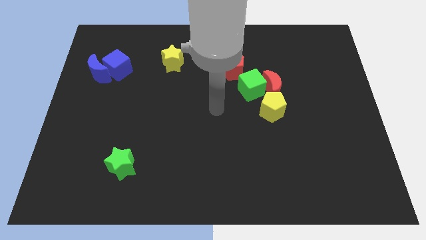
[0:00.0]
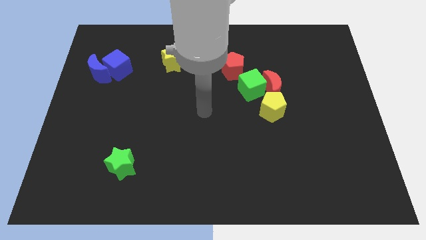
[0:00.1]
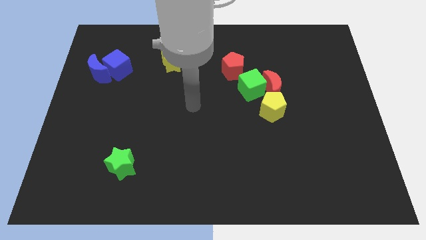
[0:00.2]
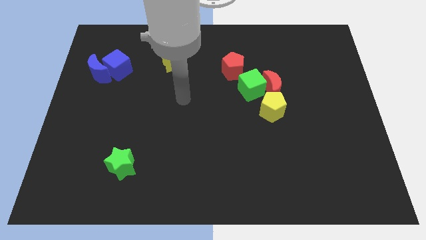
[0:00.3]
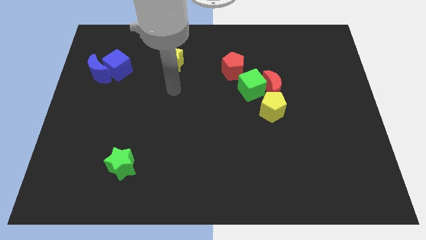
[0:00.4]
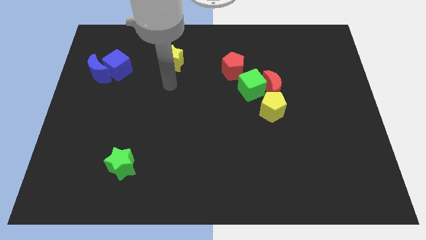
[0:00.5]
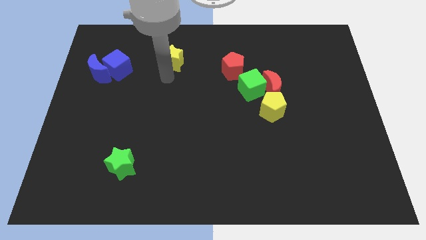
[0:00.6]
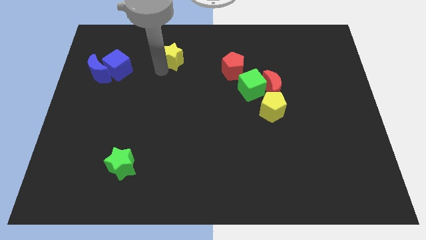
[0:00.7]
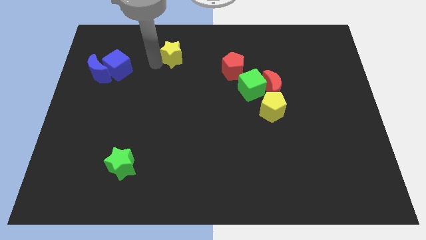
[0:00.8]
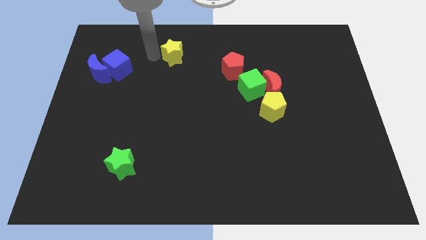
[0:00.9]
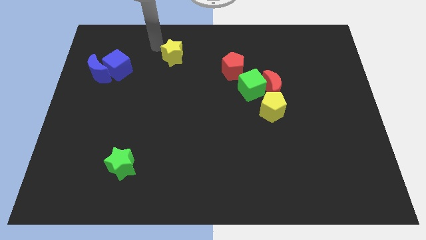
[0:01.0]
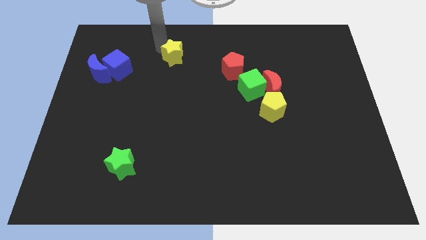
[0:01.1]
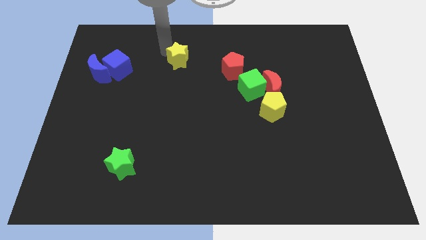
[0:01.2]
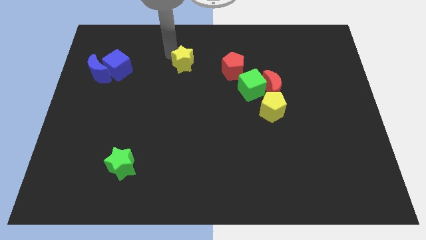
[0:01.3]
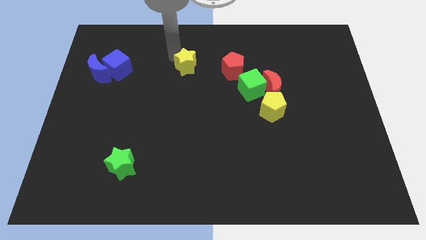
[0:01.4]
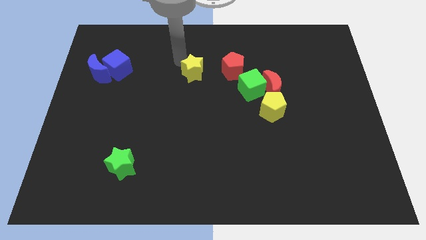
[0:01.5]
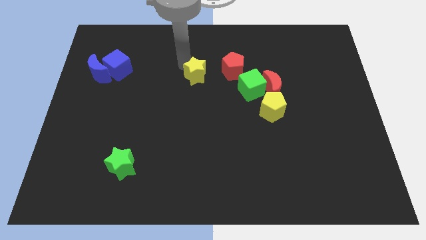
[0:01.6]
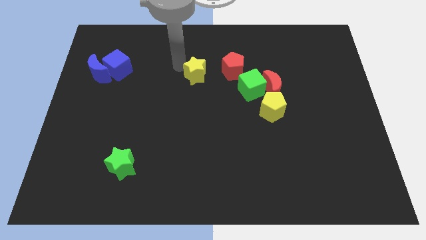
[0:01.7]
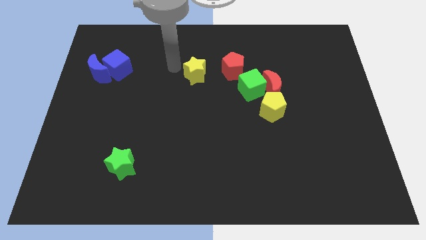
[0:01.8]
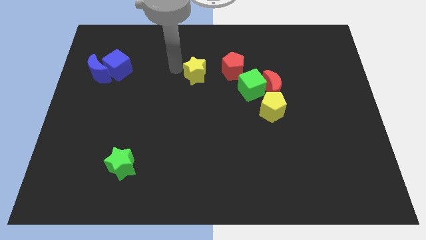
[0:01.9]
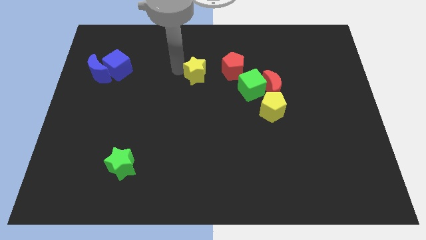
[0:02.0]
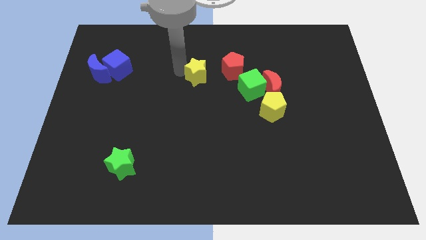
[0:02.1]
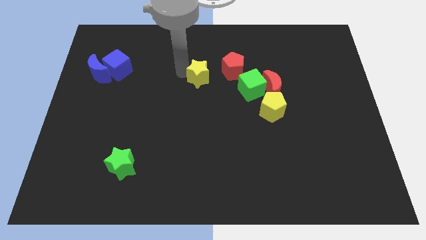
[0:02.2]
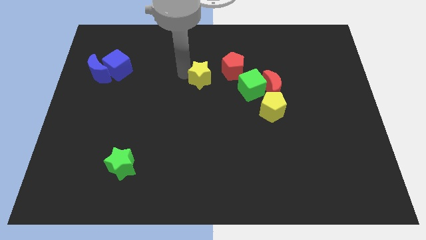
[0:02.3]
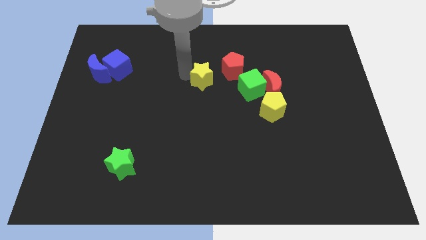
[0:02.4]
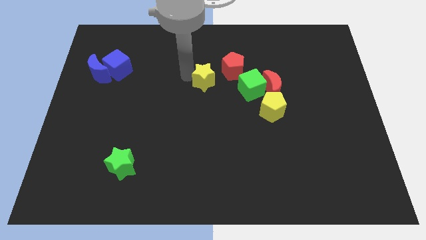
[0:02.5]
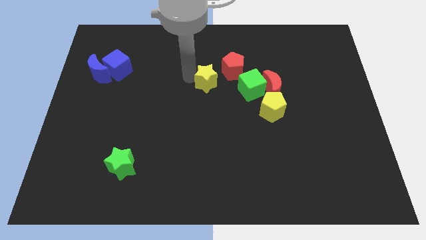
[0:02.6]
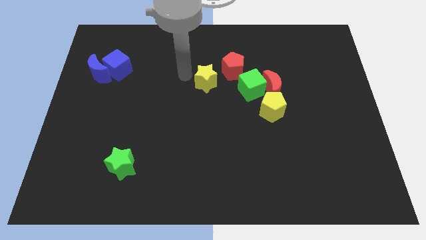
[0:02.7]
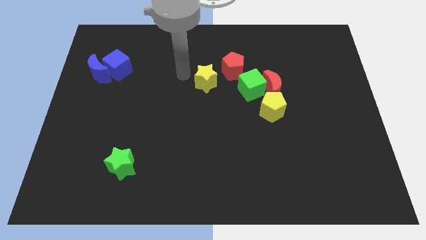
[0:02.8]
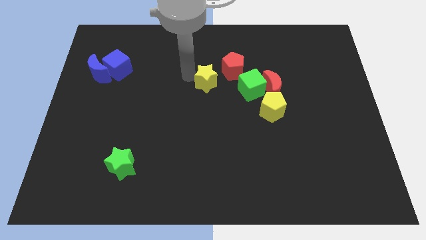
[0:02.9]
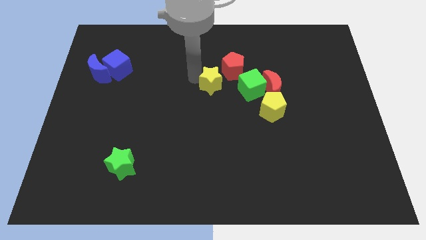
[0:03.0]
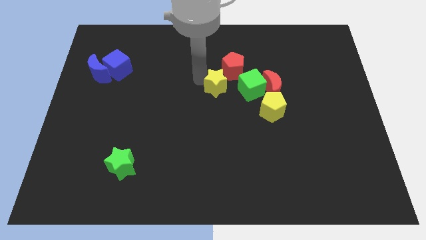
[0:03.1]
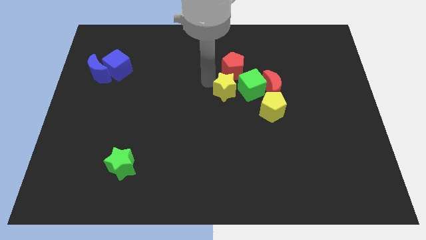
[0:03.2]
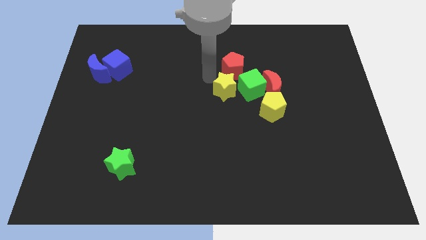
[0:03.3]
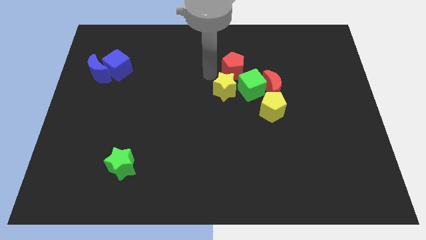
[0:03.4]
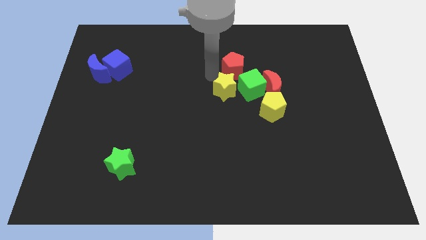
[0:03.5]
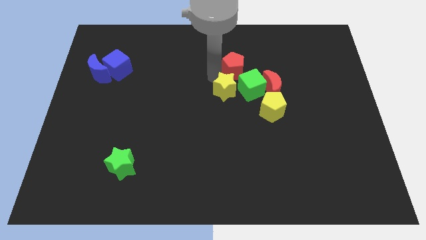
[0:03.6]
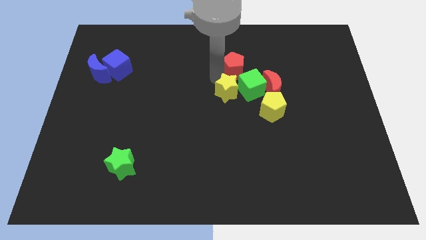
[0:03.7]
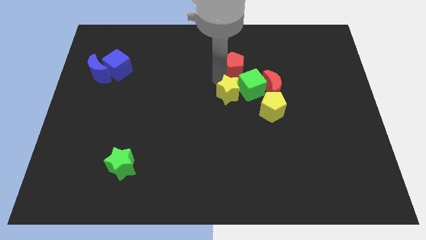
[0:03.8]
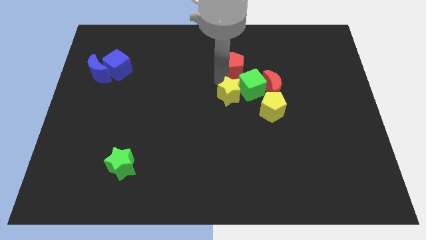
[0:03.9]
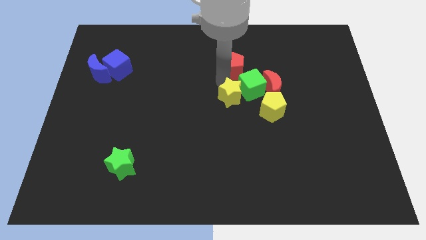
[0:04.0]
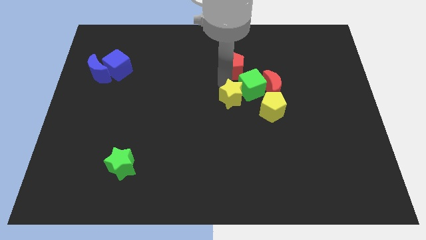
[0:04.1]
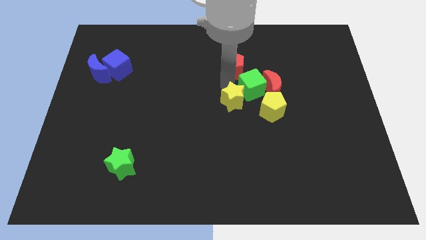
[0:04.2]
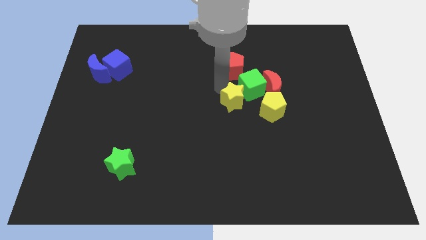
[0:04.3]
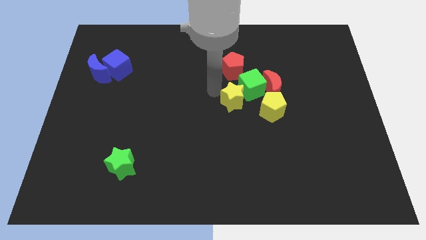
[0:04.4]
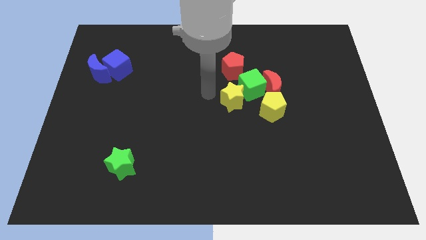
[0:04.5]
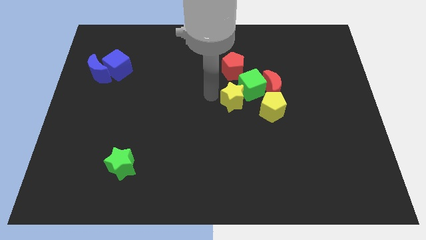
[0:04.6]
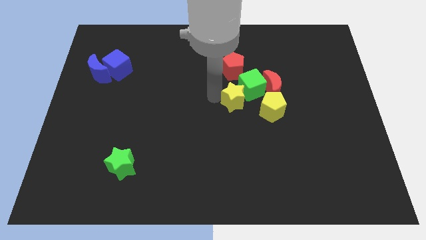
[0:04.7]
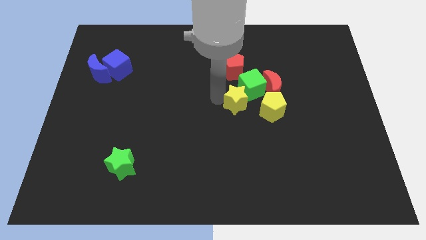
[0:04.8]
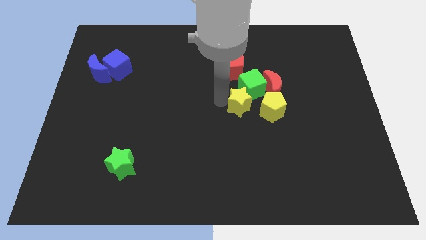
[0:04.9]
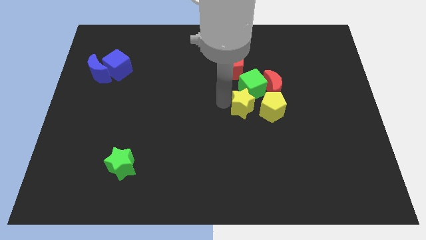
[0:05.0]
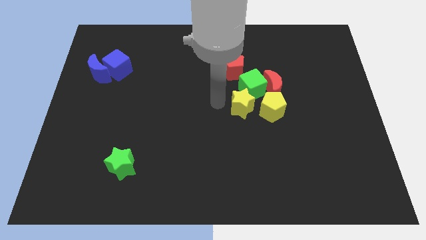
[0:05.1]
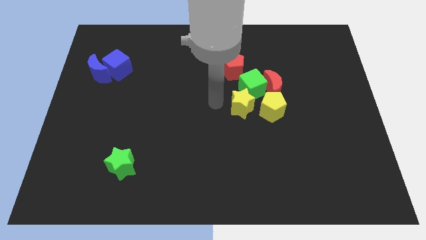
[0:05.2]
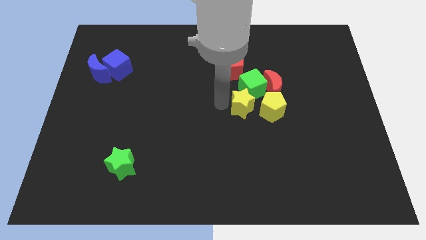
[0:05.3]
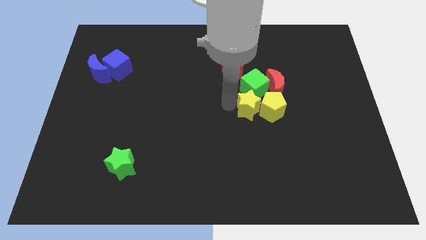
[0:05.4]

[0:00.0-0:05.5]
slide the yellow star next to the yellow pentagon

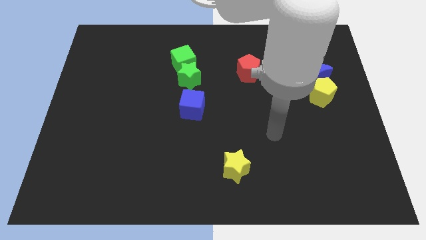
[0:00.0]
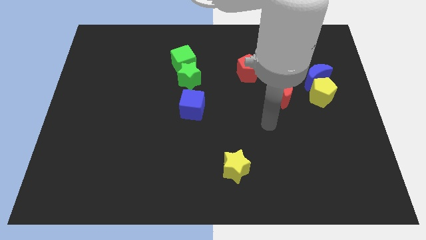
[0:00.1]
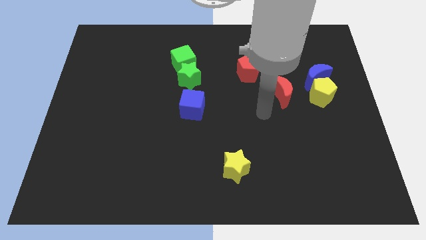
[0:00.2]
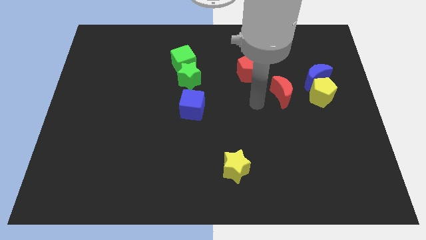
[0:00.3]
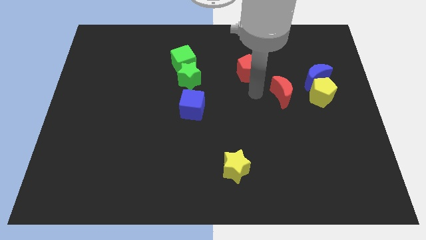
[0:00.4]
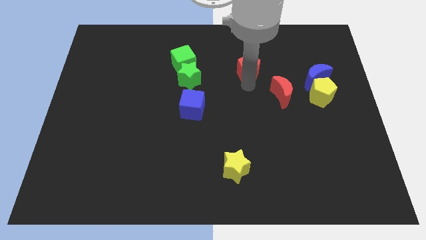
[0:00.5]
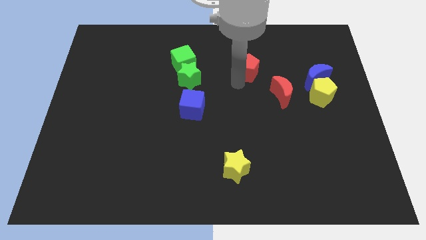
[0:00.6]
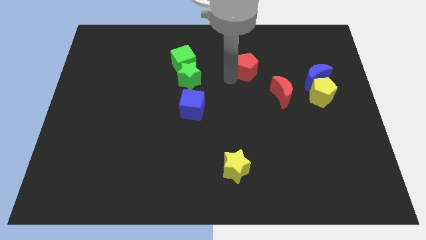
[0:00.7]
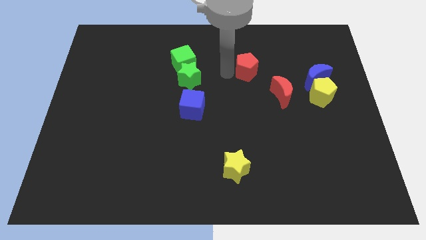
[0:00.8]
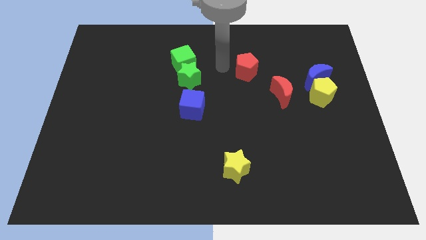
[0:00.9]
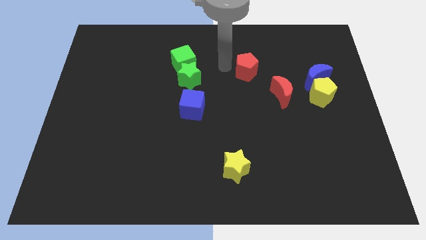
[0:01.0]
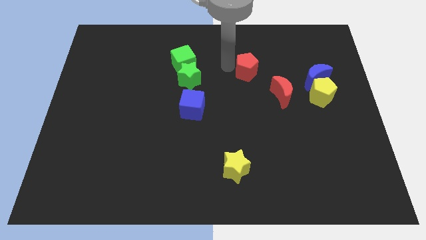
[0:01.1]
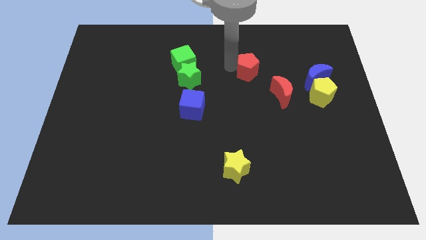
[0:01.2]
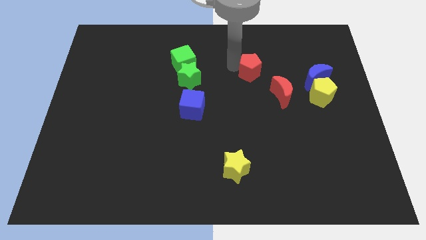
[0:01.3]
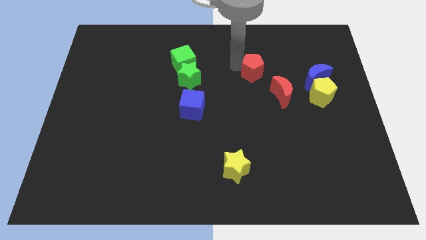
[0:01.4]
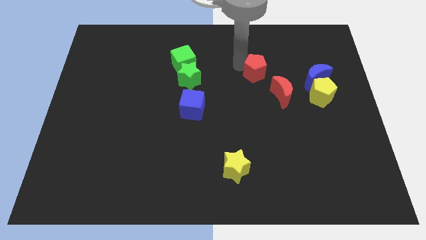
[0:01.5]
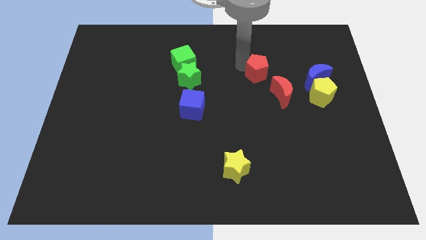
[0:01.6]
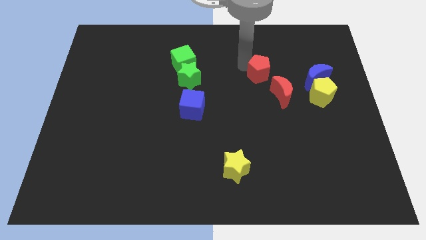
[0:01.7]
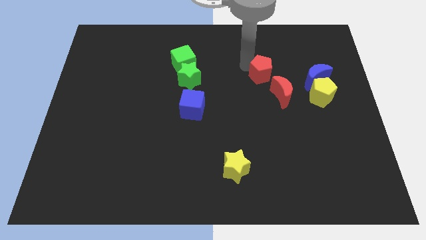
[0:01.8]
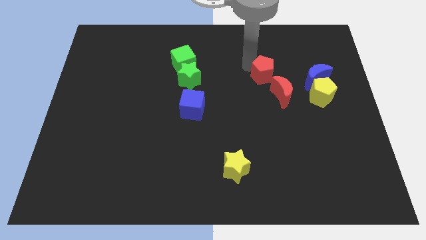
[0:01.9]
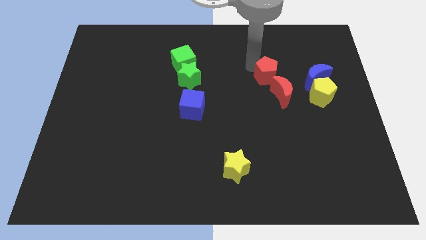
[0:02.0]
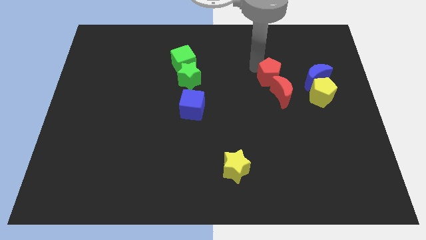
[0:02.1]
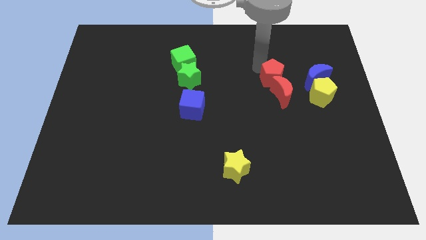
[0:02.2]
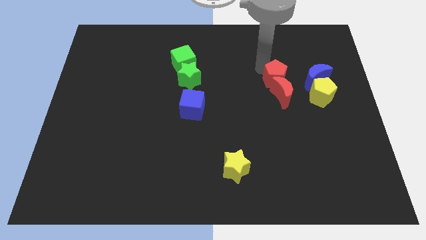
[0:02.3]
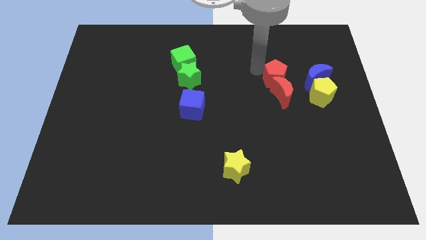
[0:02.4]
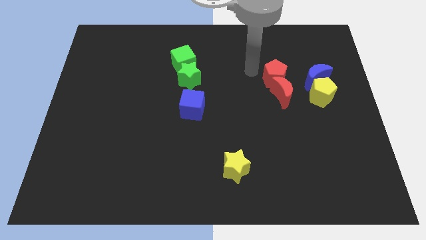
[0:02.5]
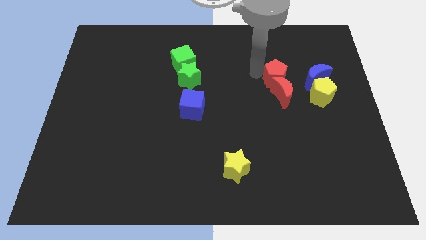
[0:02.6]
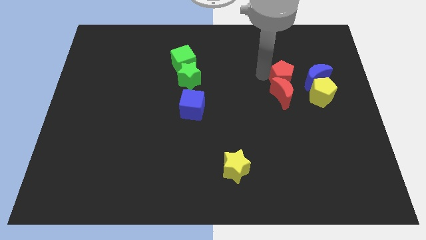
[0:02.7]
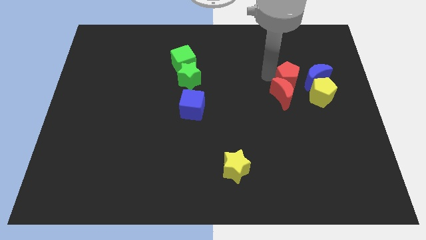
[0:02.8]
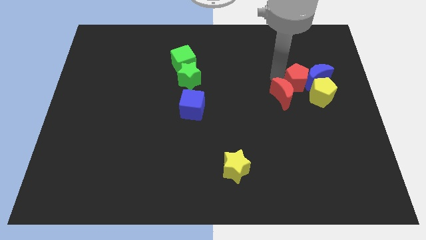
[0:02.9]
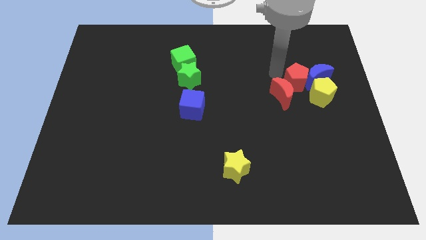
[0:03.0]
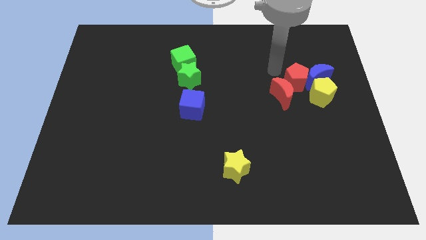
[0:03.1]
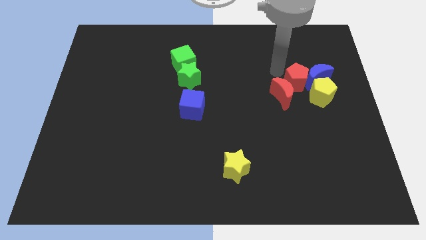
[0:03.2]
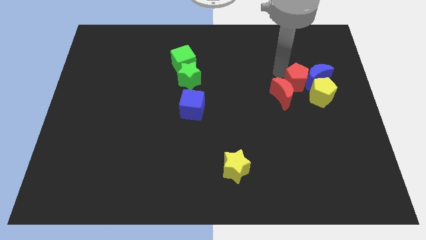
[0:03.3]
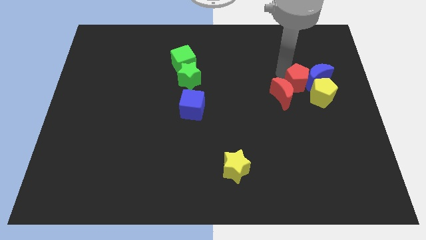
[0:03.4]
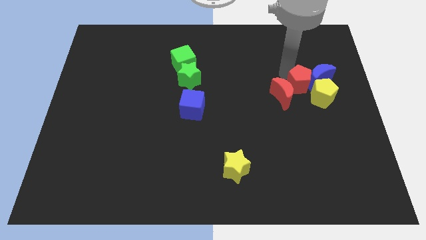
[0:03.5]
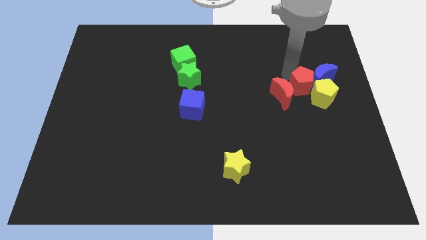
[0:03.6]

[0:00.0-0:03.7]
slide the red pentagon next to the yellow pentagon
